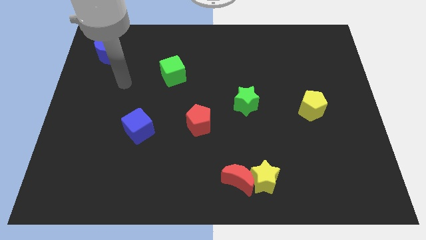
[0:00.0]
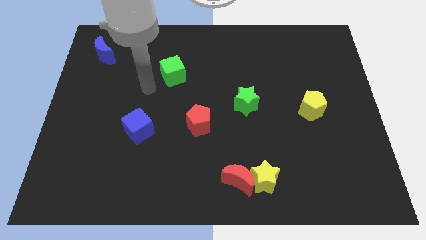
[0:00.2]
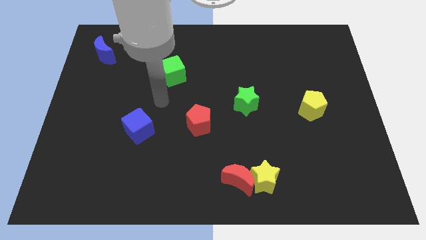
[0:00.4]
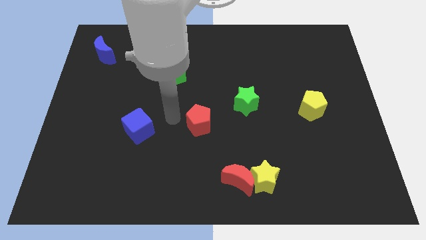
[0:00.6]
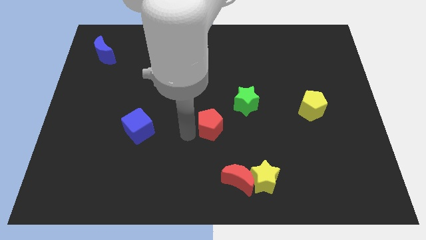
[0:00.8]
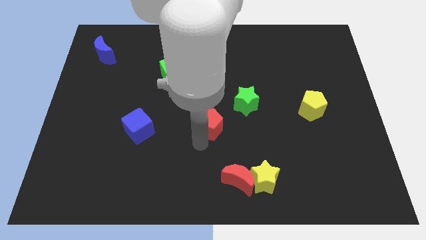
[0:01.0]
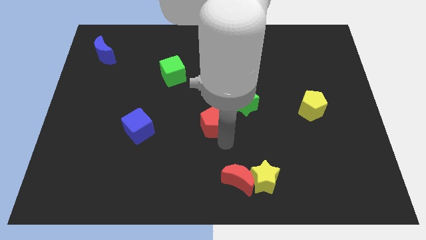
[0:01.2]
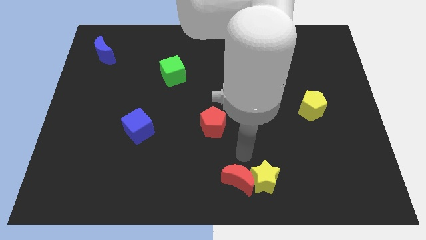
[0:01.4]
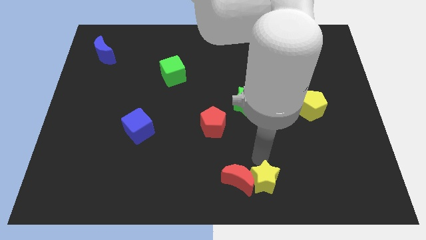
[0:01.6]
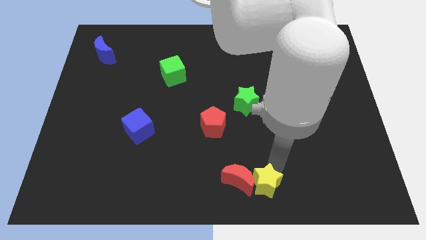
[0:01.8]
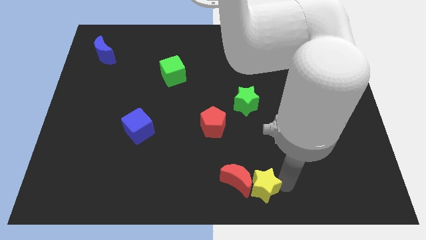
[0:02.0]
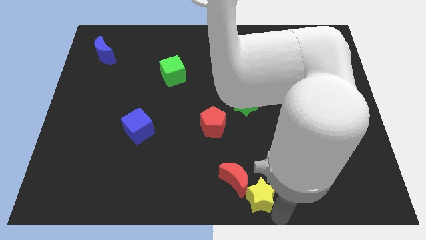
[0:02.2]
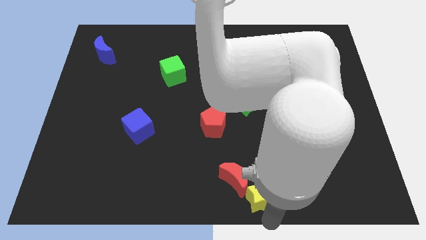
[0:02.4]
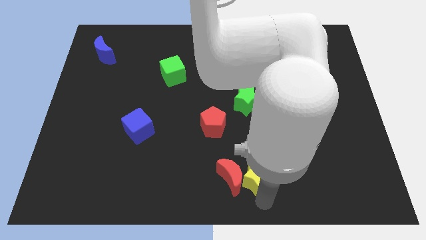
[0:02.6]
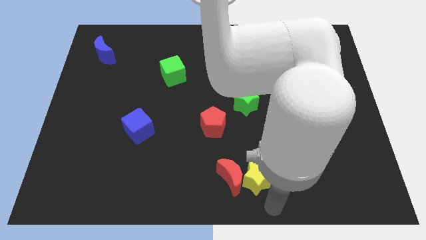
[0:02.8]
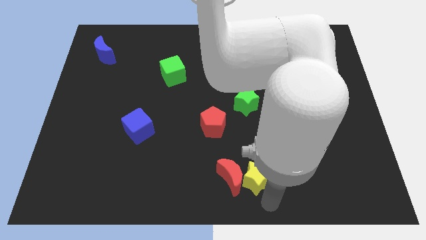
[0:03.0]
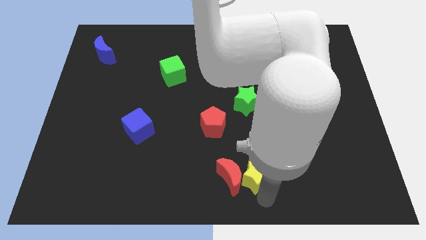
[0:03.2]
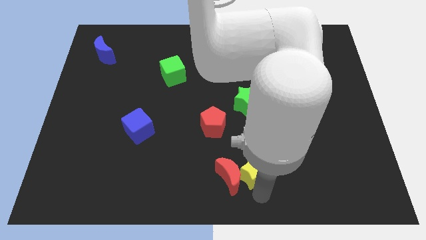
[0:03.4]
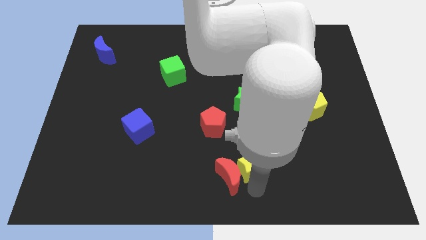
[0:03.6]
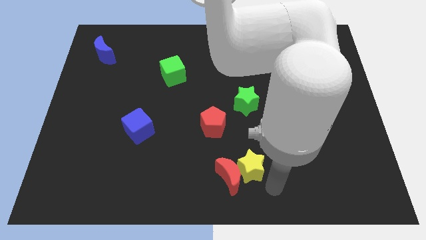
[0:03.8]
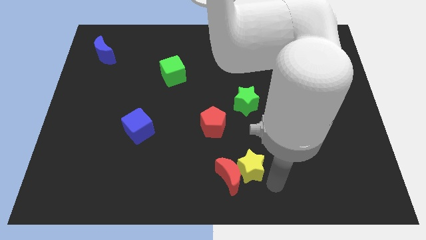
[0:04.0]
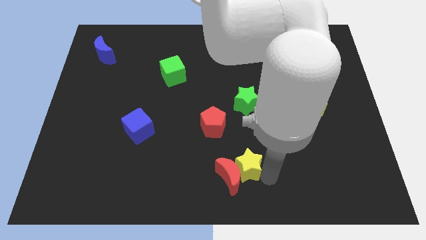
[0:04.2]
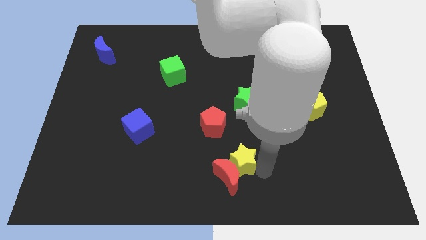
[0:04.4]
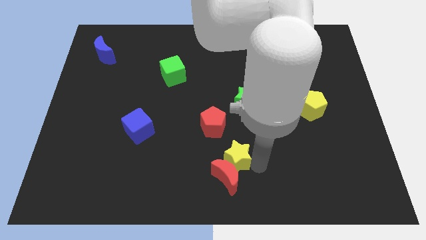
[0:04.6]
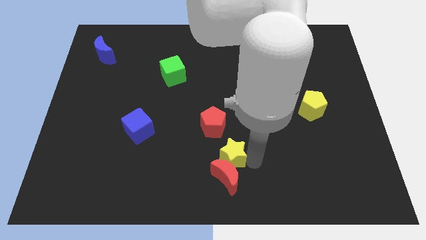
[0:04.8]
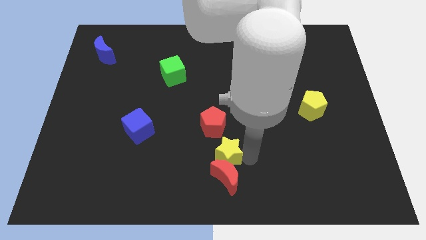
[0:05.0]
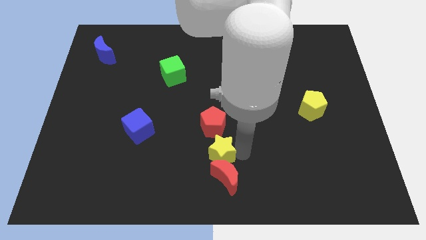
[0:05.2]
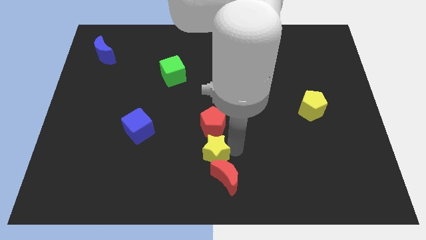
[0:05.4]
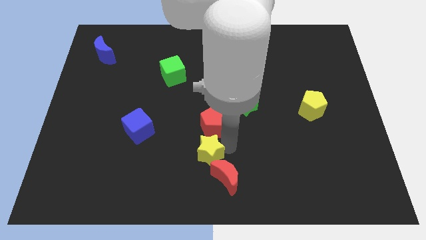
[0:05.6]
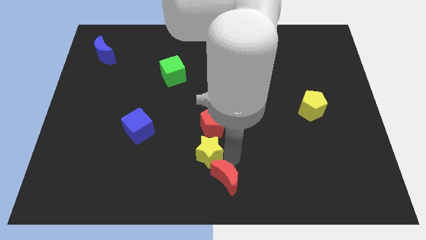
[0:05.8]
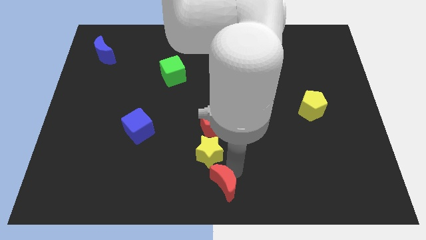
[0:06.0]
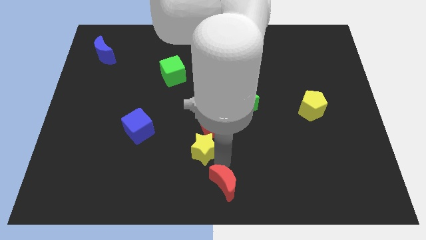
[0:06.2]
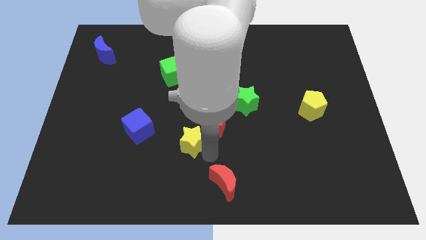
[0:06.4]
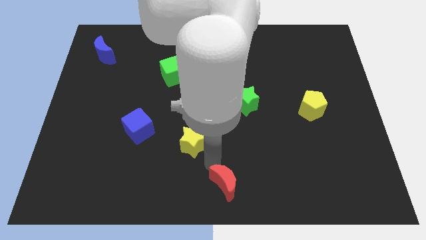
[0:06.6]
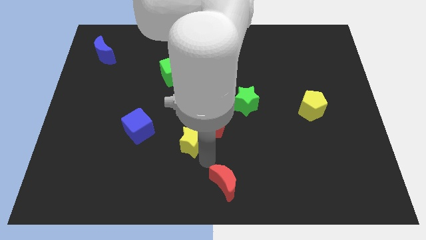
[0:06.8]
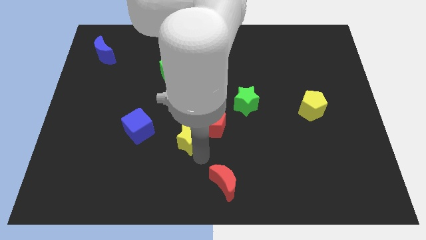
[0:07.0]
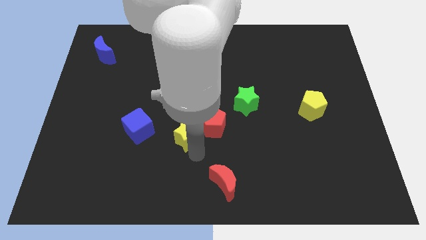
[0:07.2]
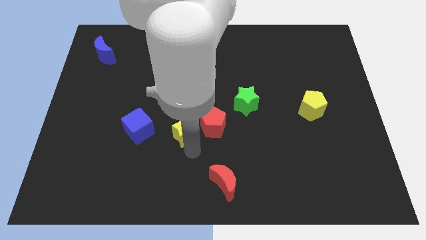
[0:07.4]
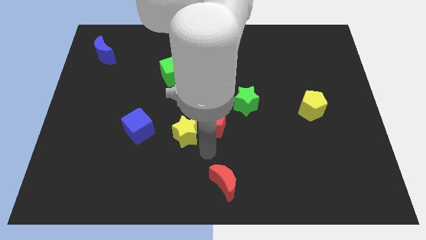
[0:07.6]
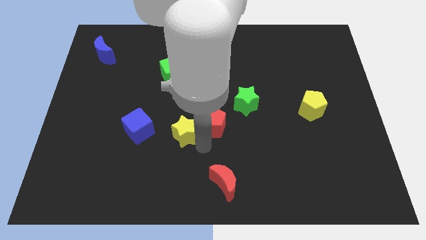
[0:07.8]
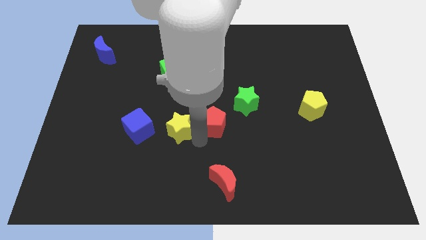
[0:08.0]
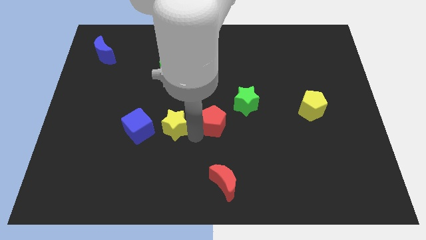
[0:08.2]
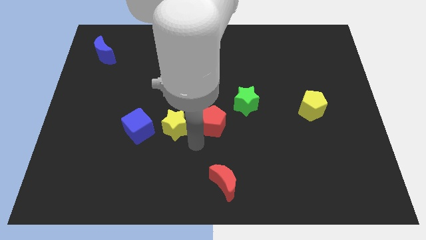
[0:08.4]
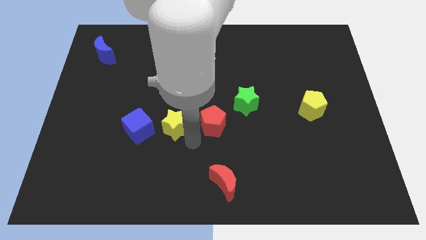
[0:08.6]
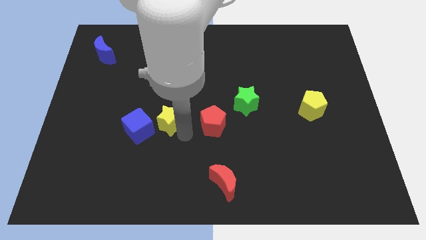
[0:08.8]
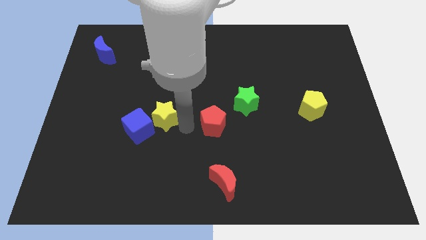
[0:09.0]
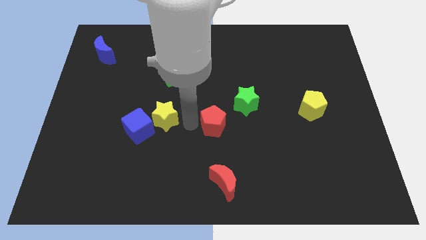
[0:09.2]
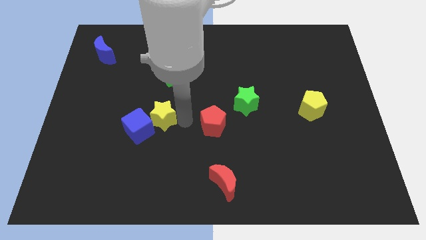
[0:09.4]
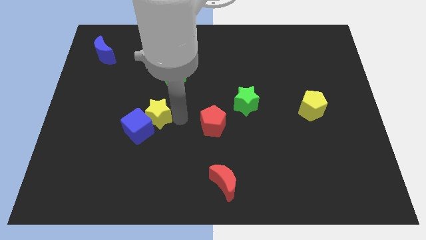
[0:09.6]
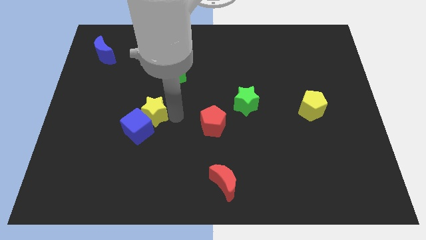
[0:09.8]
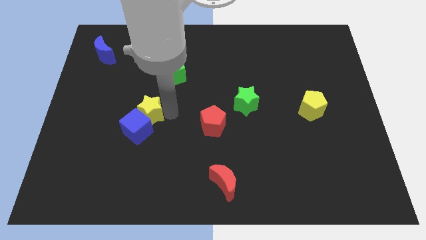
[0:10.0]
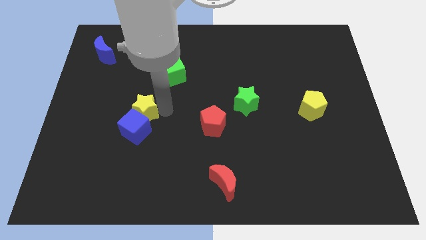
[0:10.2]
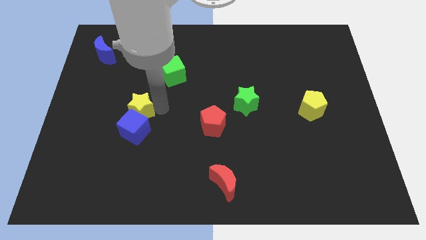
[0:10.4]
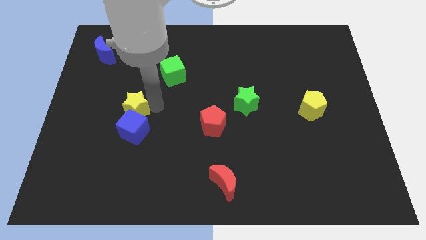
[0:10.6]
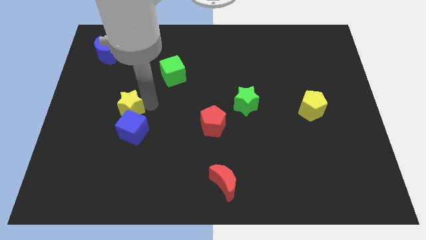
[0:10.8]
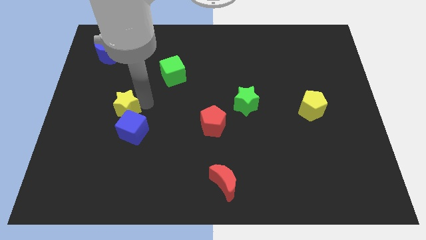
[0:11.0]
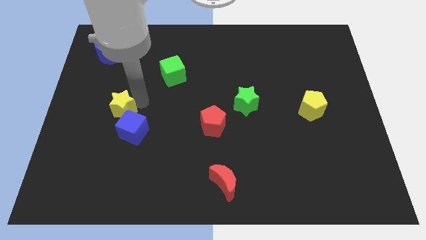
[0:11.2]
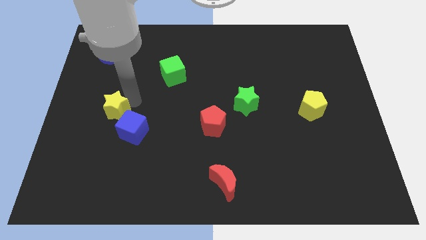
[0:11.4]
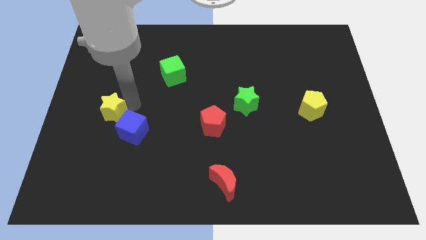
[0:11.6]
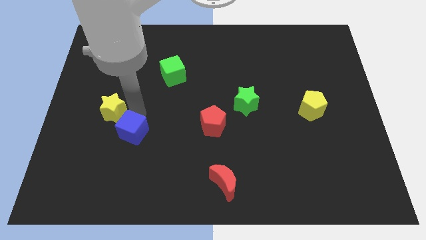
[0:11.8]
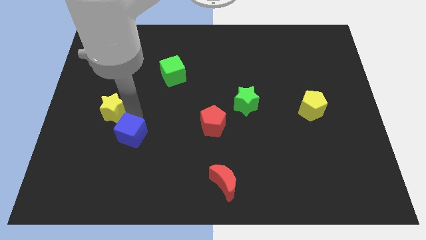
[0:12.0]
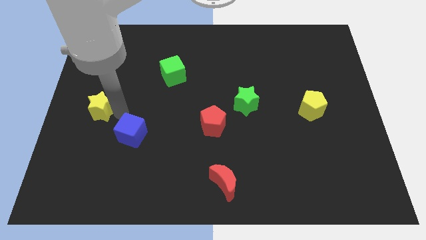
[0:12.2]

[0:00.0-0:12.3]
move the yellow star to the center left
